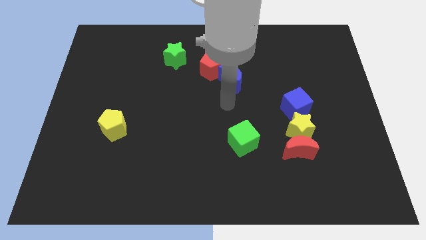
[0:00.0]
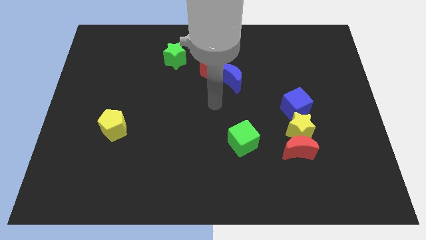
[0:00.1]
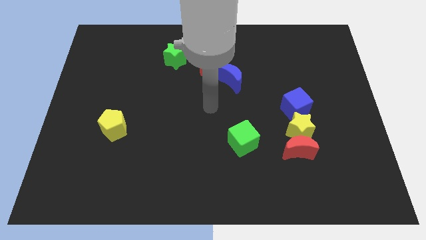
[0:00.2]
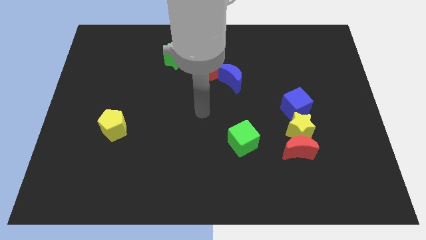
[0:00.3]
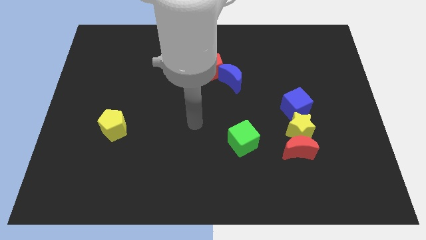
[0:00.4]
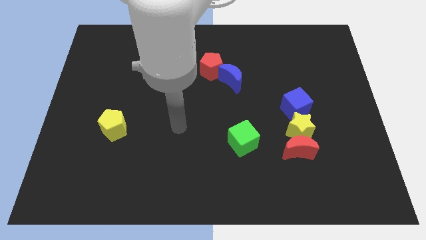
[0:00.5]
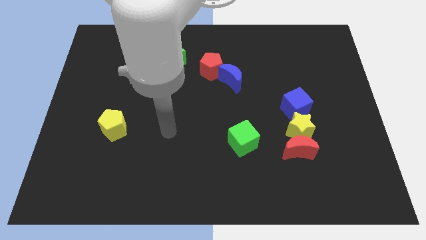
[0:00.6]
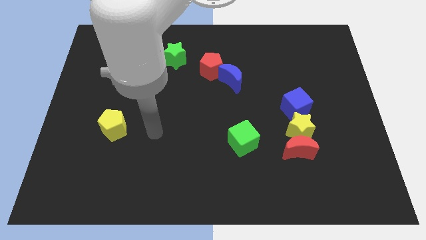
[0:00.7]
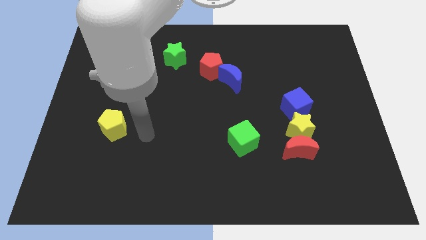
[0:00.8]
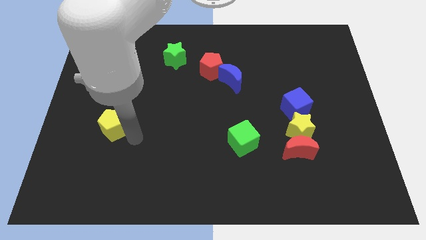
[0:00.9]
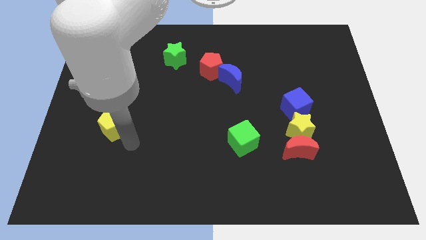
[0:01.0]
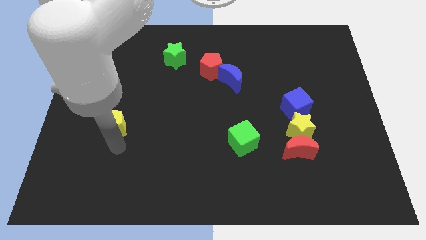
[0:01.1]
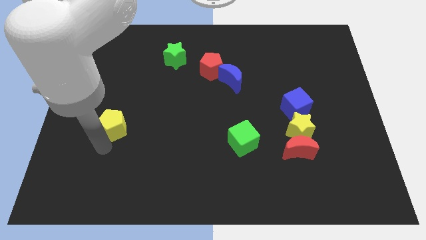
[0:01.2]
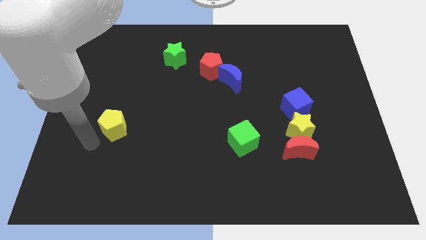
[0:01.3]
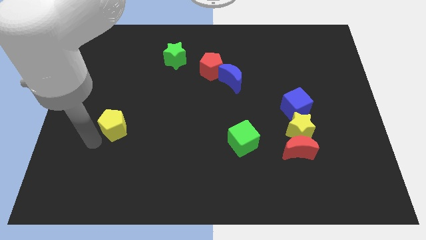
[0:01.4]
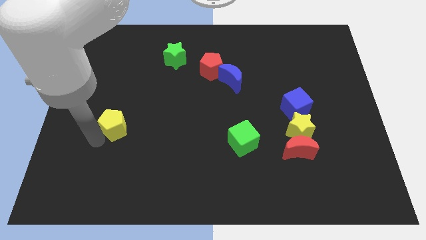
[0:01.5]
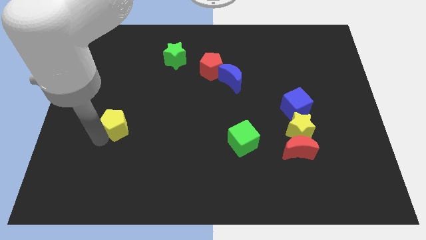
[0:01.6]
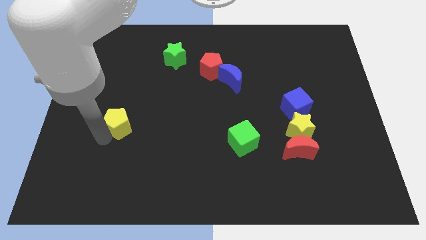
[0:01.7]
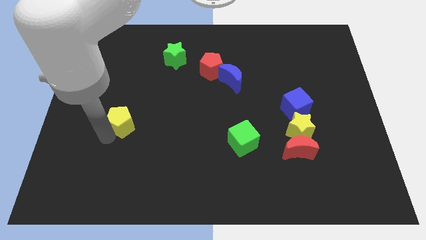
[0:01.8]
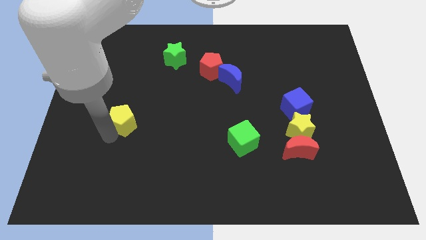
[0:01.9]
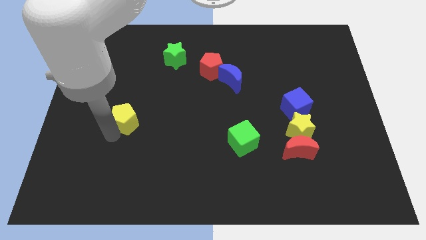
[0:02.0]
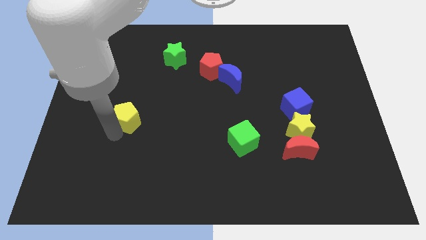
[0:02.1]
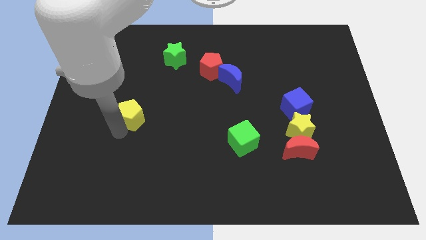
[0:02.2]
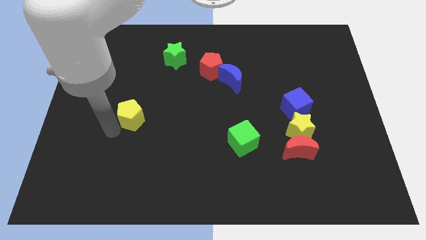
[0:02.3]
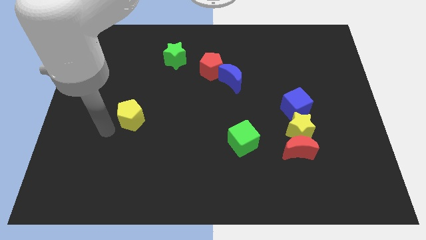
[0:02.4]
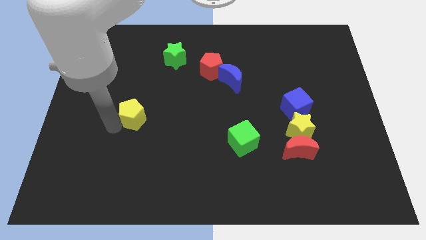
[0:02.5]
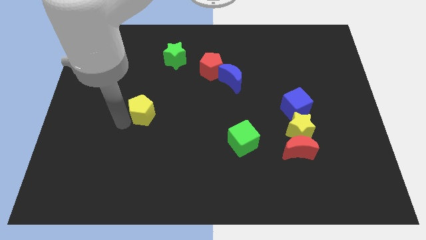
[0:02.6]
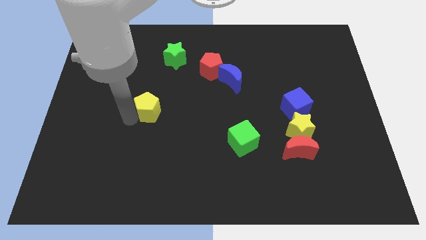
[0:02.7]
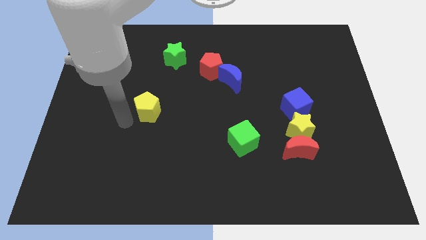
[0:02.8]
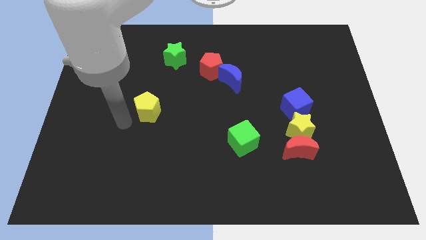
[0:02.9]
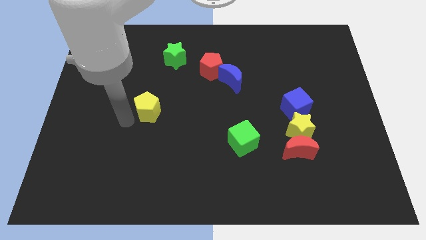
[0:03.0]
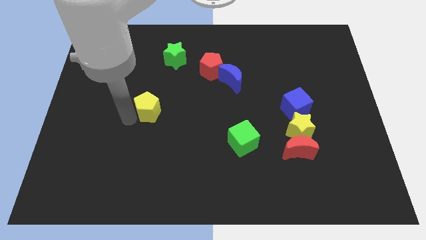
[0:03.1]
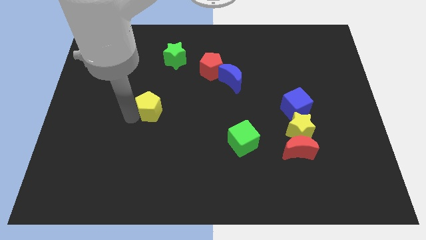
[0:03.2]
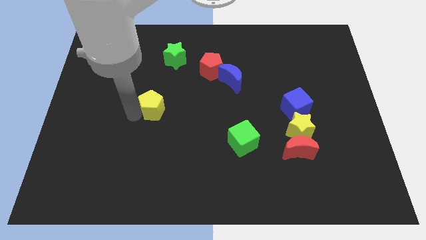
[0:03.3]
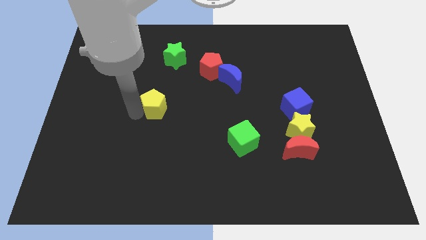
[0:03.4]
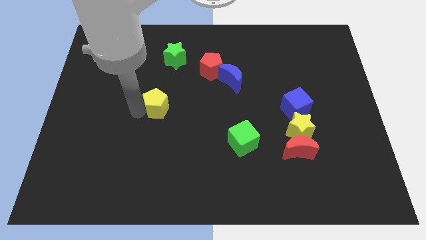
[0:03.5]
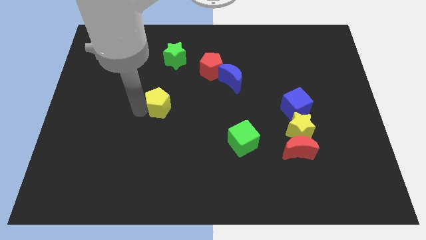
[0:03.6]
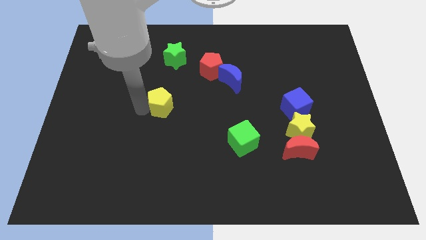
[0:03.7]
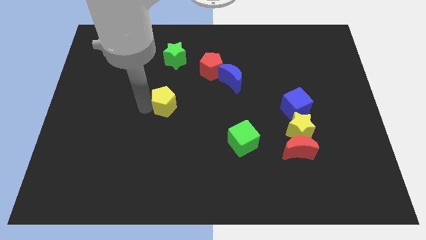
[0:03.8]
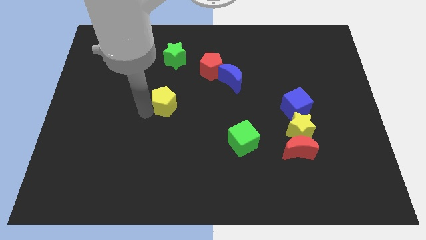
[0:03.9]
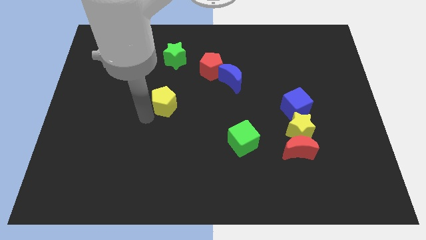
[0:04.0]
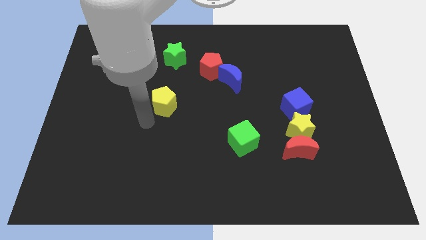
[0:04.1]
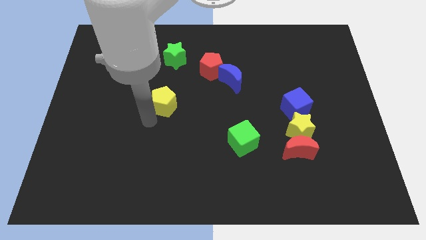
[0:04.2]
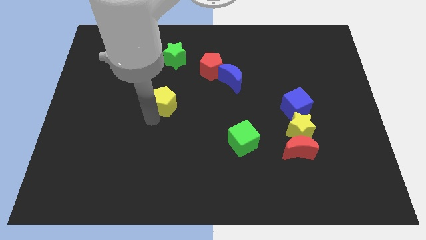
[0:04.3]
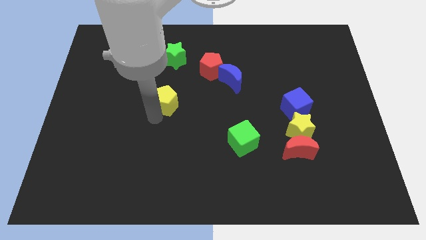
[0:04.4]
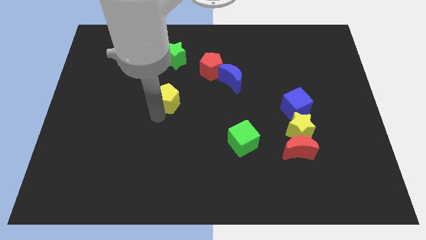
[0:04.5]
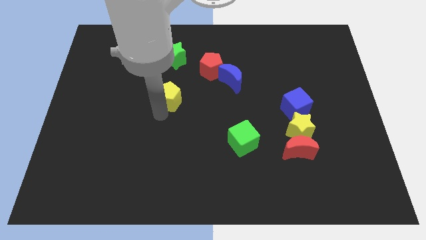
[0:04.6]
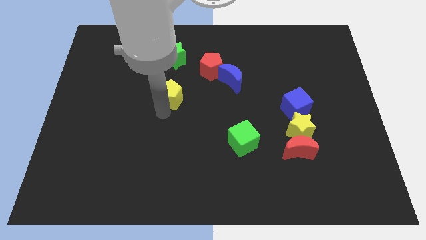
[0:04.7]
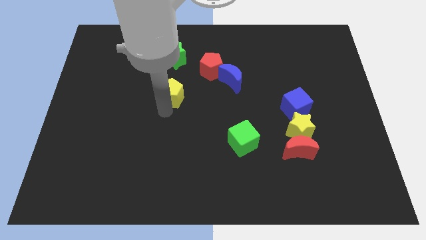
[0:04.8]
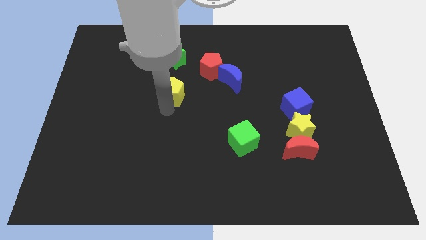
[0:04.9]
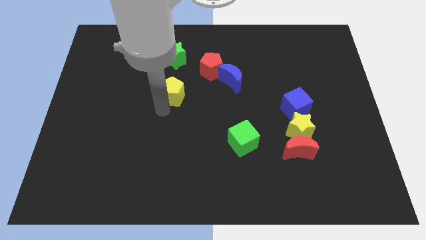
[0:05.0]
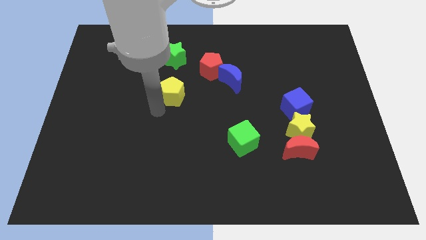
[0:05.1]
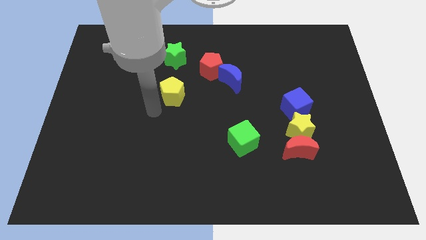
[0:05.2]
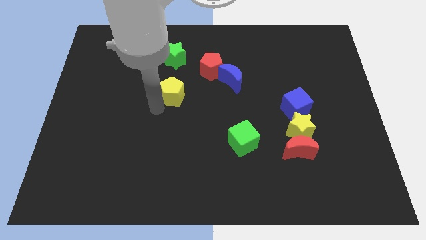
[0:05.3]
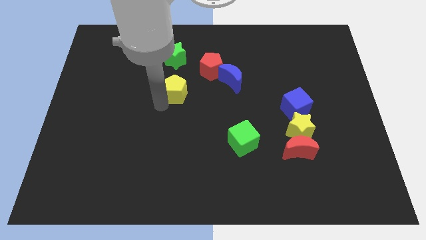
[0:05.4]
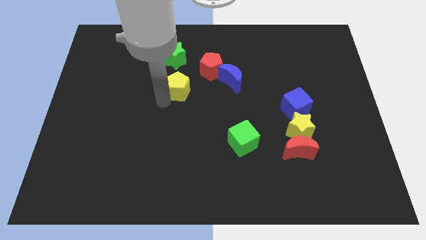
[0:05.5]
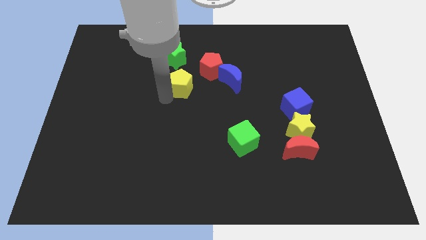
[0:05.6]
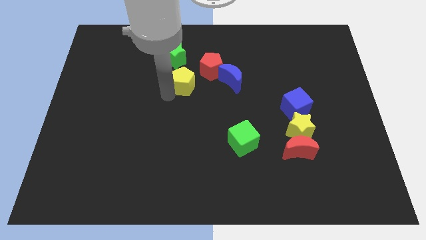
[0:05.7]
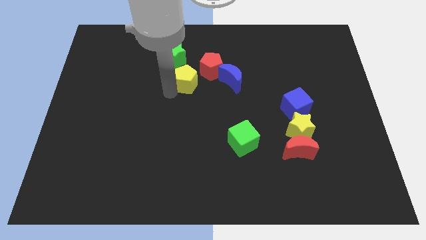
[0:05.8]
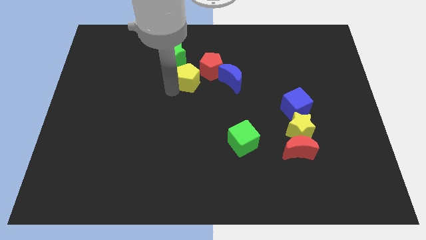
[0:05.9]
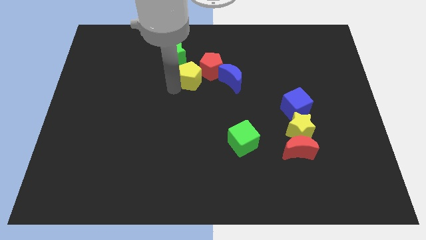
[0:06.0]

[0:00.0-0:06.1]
put the yellow pentagon to the red pentagon
